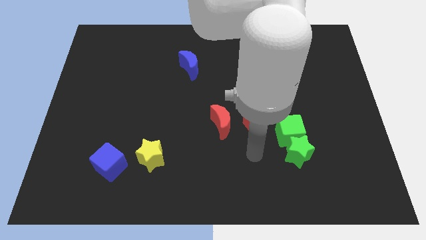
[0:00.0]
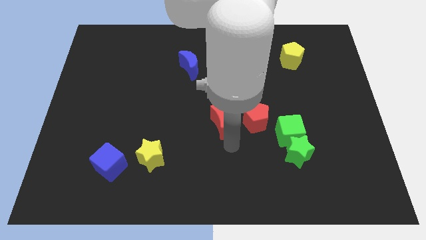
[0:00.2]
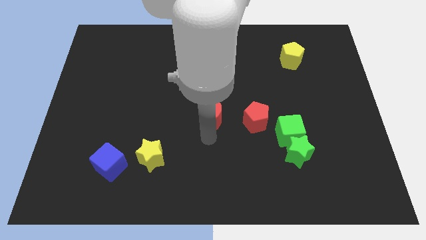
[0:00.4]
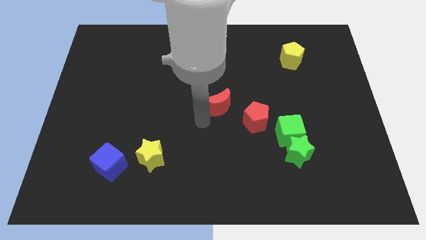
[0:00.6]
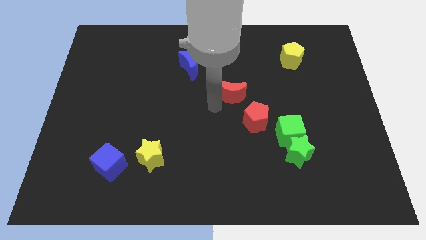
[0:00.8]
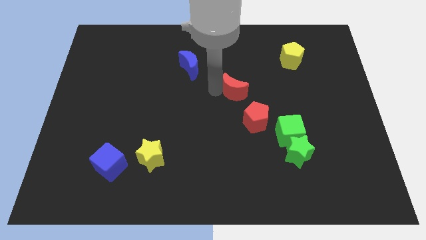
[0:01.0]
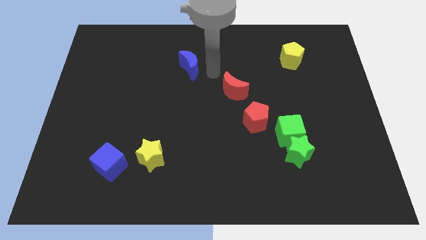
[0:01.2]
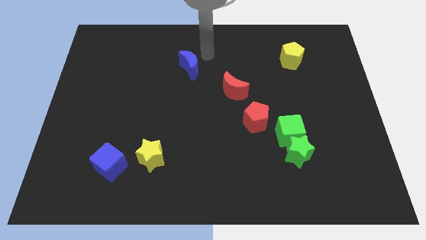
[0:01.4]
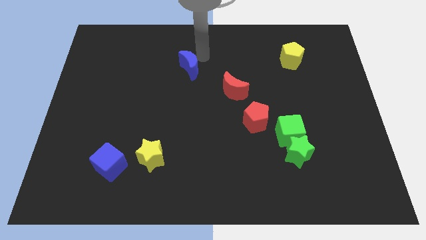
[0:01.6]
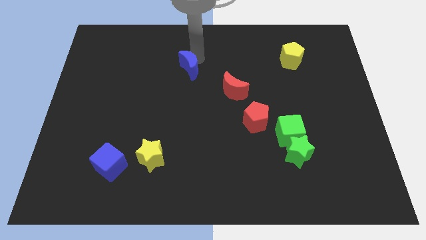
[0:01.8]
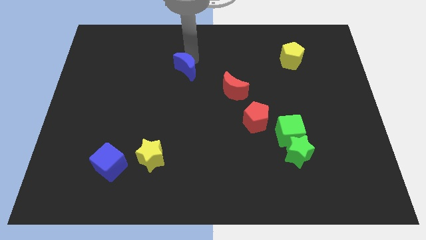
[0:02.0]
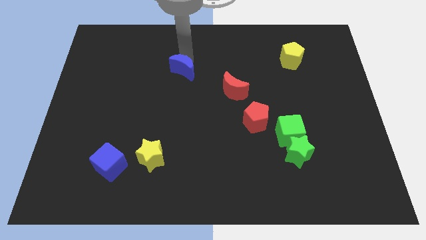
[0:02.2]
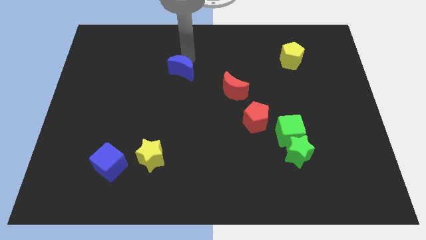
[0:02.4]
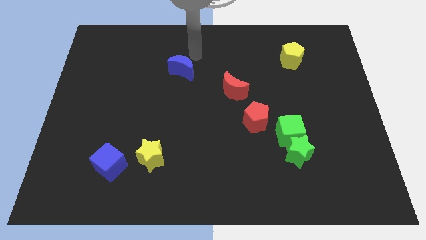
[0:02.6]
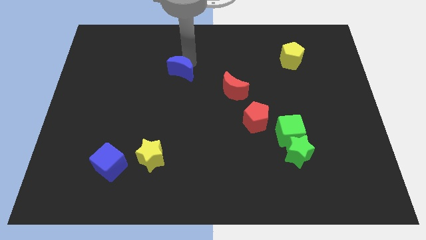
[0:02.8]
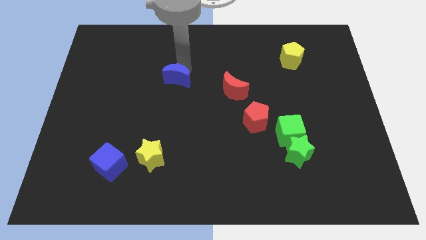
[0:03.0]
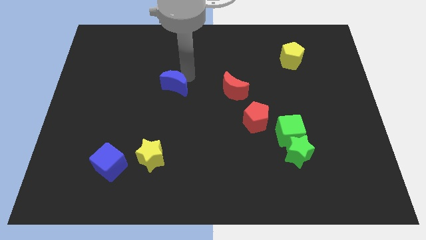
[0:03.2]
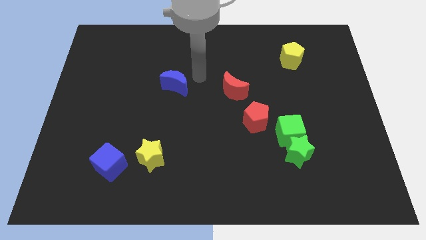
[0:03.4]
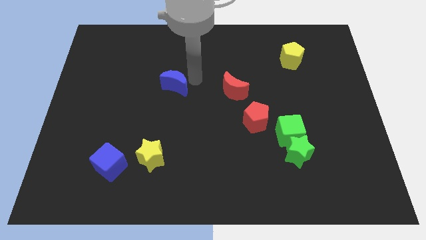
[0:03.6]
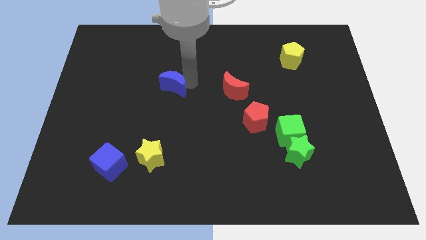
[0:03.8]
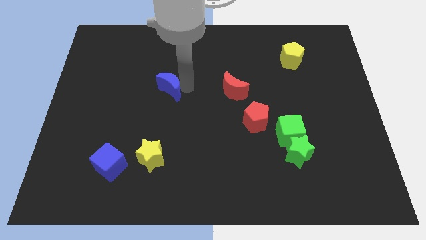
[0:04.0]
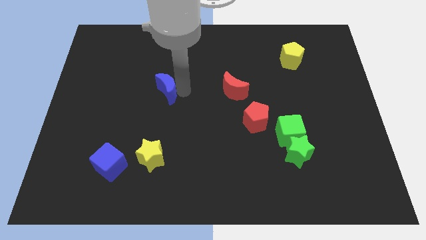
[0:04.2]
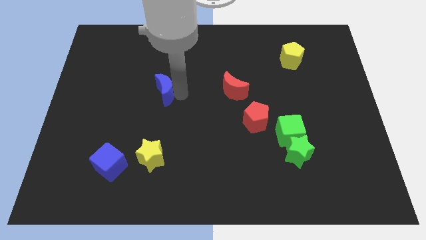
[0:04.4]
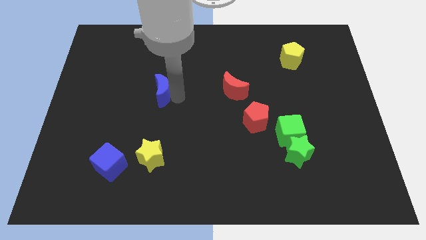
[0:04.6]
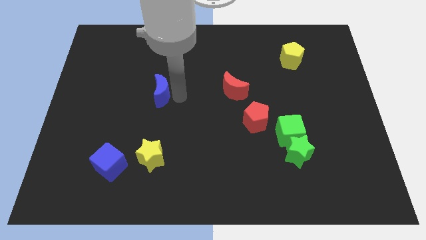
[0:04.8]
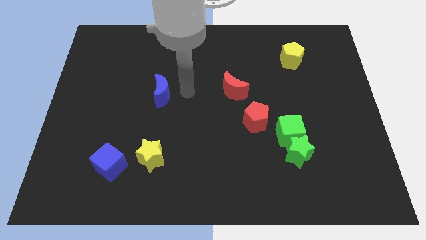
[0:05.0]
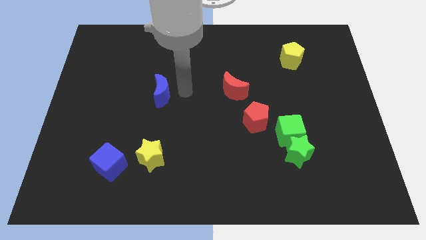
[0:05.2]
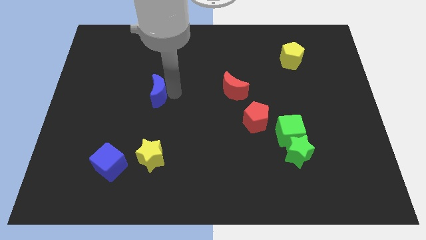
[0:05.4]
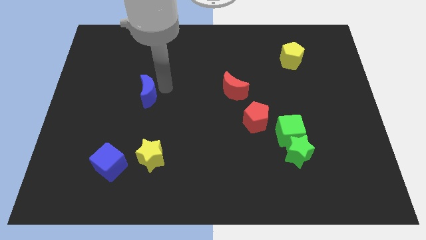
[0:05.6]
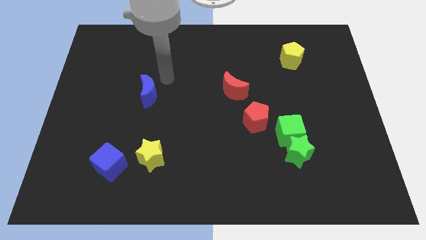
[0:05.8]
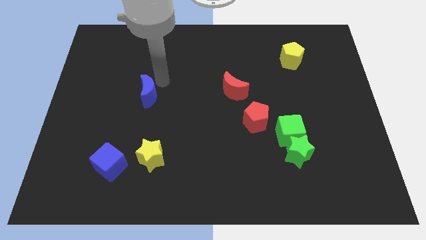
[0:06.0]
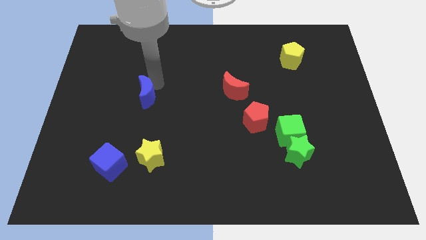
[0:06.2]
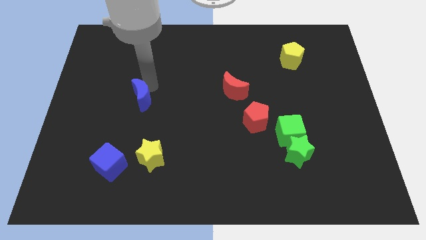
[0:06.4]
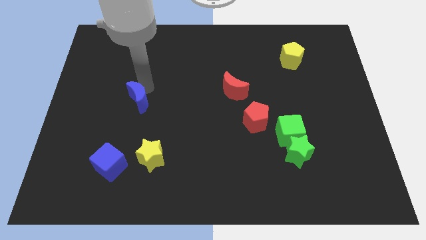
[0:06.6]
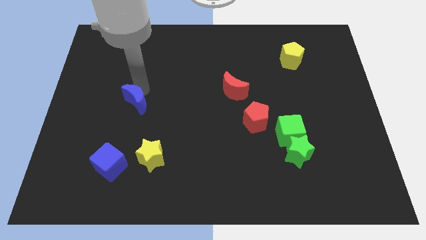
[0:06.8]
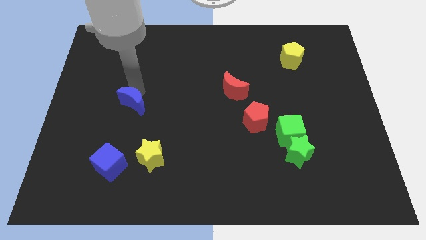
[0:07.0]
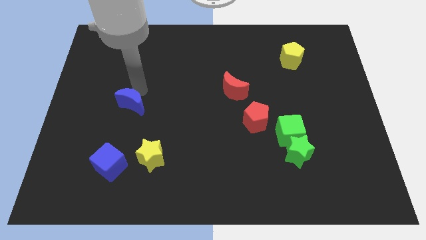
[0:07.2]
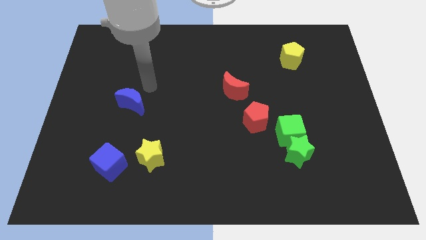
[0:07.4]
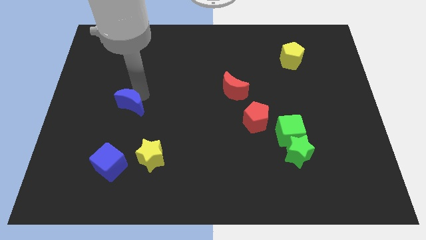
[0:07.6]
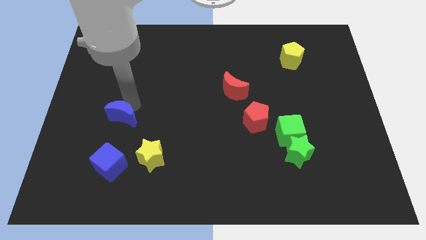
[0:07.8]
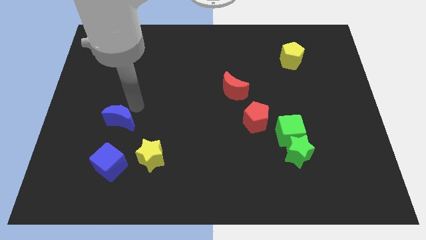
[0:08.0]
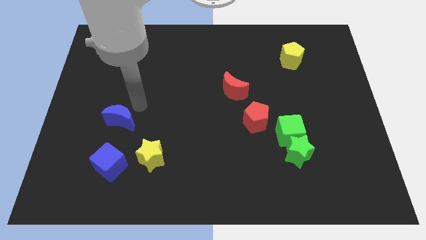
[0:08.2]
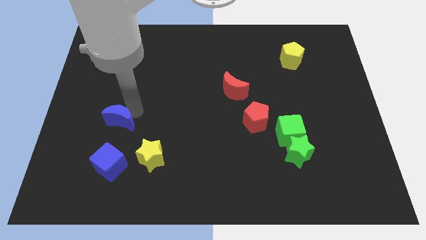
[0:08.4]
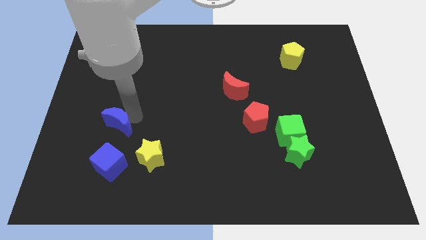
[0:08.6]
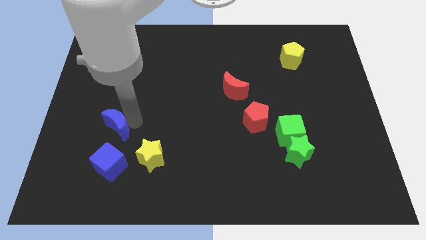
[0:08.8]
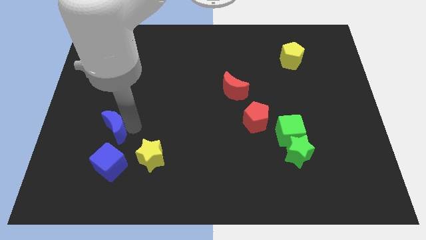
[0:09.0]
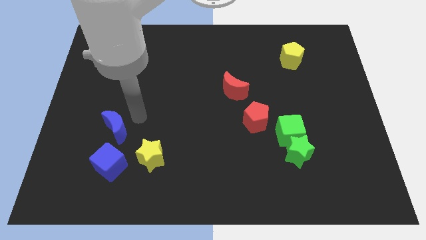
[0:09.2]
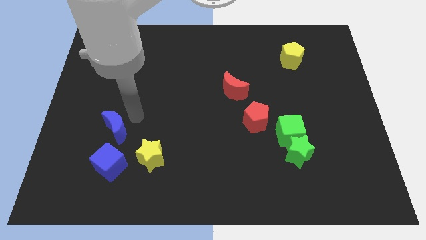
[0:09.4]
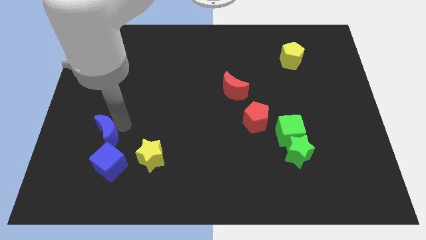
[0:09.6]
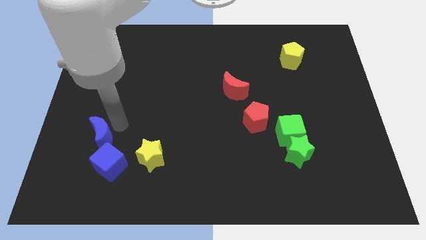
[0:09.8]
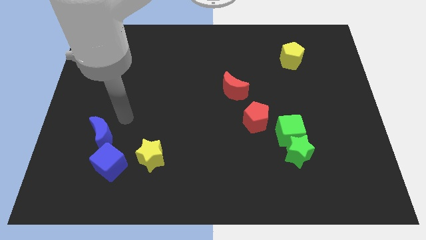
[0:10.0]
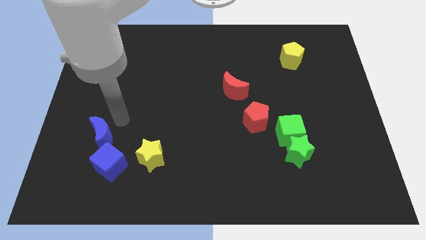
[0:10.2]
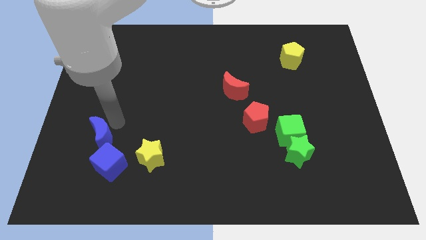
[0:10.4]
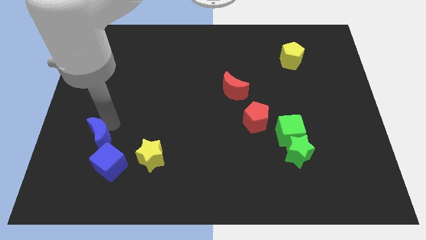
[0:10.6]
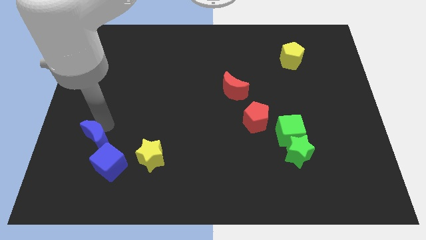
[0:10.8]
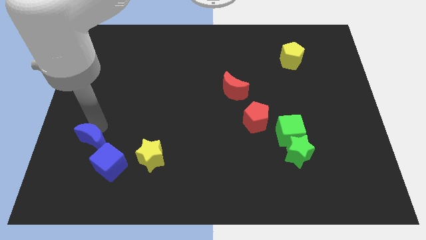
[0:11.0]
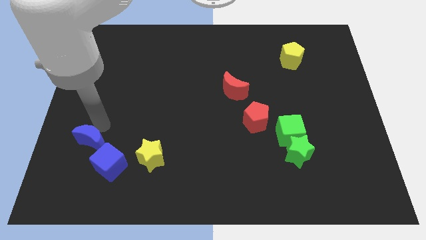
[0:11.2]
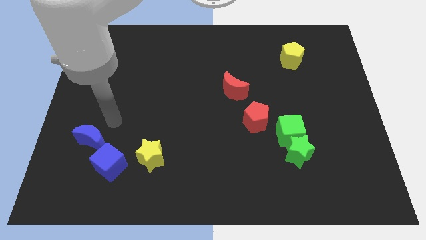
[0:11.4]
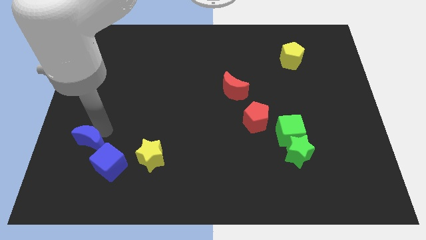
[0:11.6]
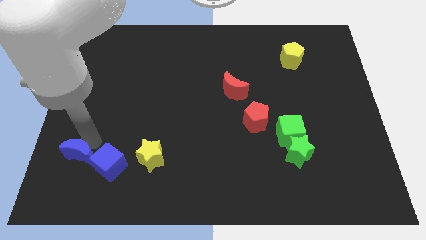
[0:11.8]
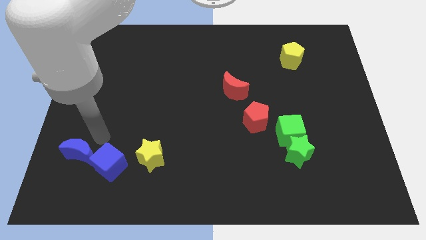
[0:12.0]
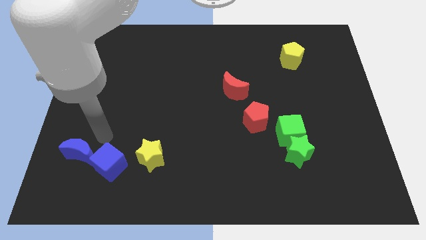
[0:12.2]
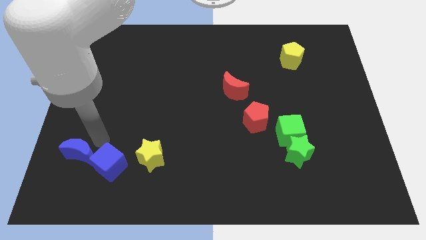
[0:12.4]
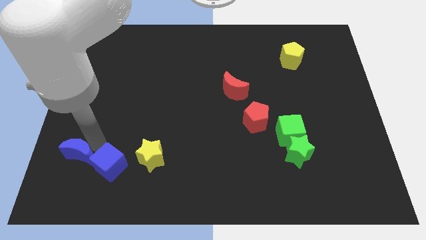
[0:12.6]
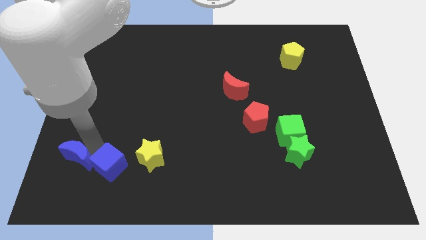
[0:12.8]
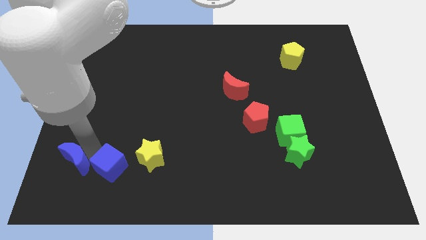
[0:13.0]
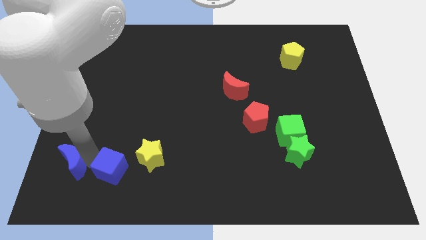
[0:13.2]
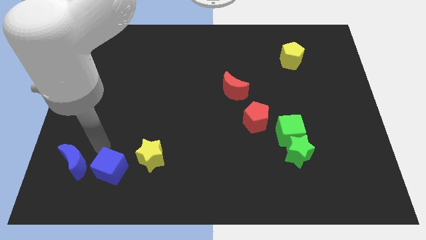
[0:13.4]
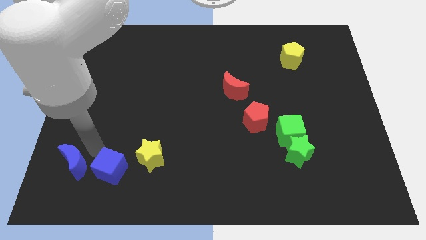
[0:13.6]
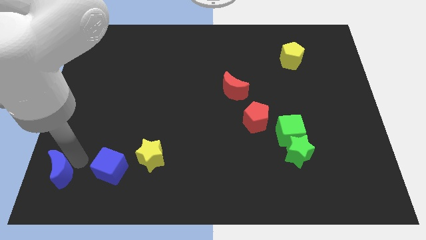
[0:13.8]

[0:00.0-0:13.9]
put the blue moon to the bottom left of the board
